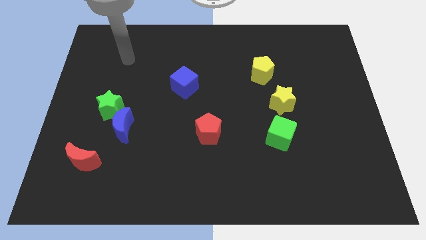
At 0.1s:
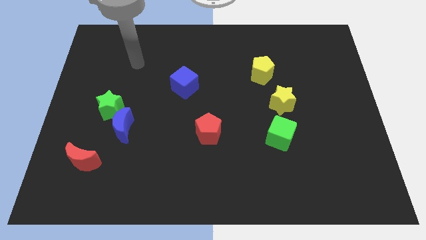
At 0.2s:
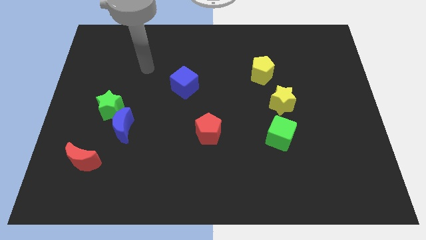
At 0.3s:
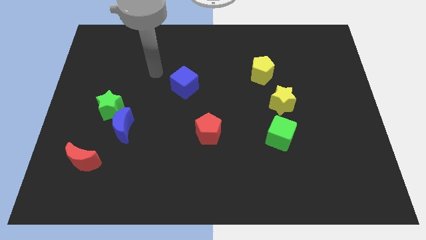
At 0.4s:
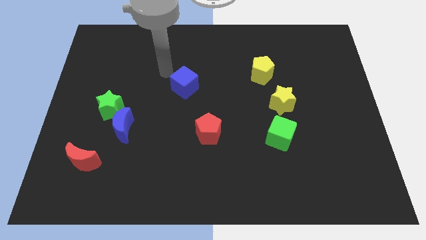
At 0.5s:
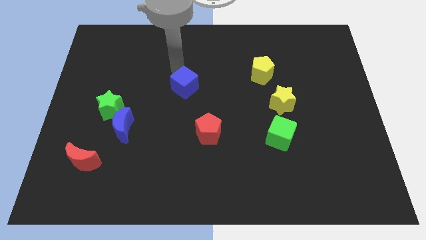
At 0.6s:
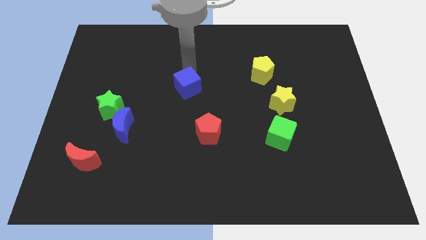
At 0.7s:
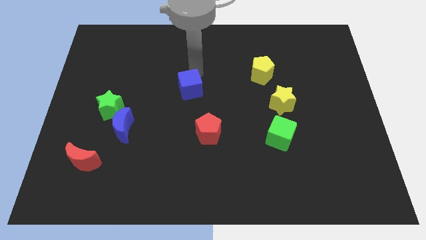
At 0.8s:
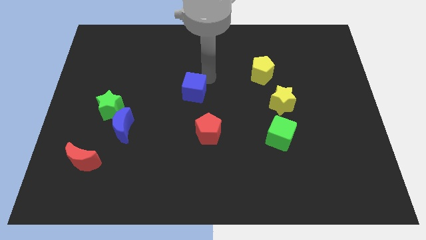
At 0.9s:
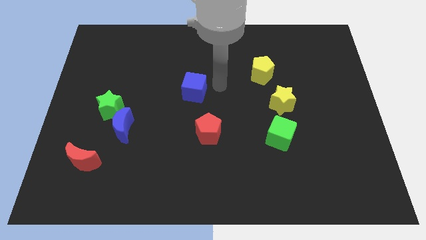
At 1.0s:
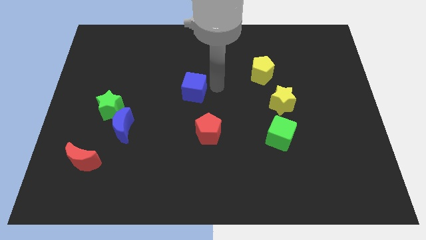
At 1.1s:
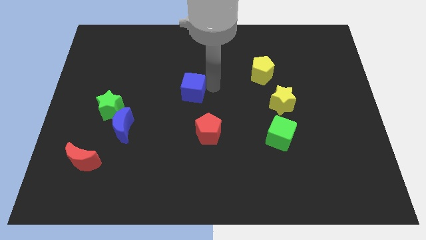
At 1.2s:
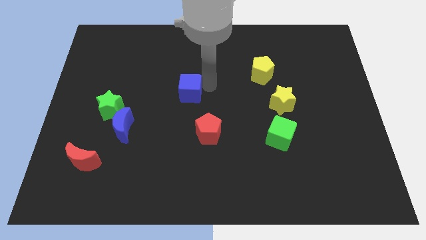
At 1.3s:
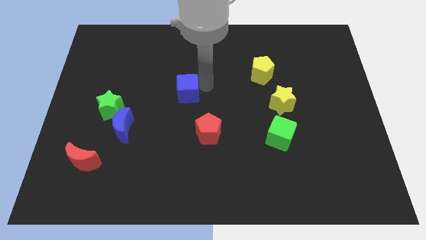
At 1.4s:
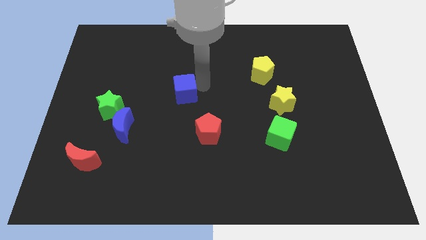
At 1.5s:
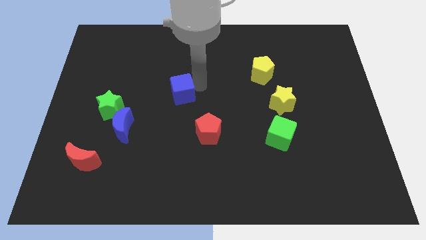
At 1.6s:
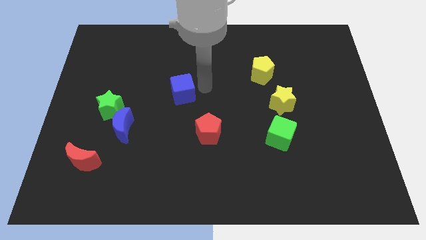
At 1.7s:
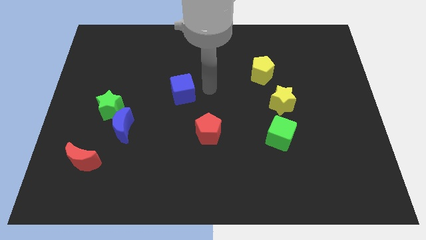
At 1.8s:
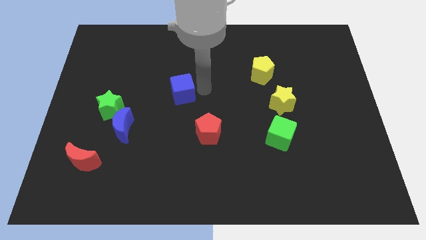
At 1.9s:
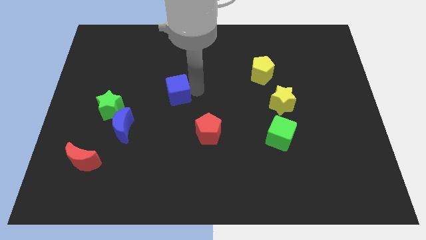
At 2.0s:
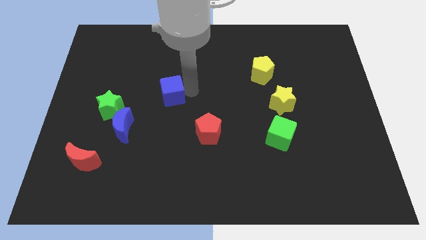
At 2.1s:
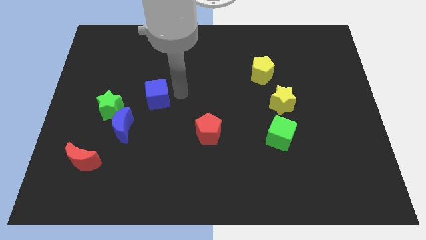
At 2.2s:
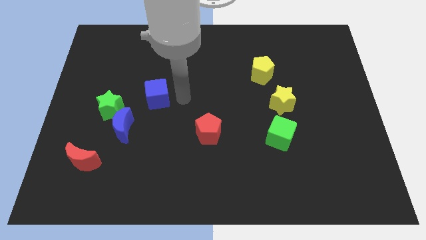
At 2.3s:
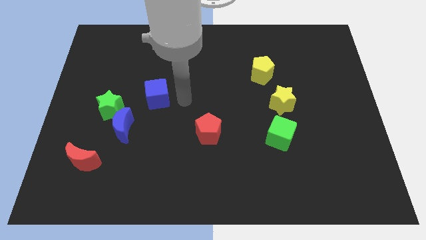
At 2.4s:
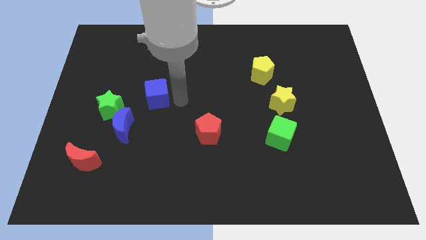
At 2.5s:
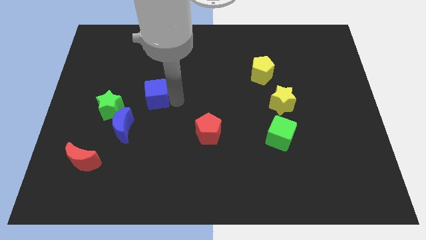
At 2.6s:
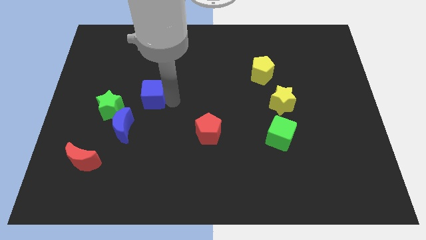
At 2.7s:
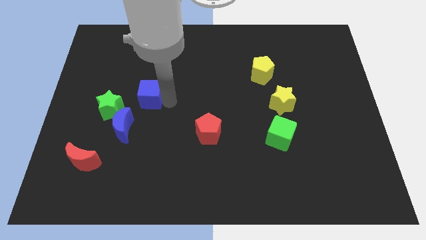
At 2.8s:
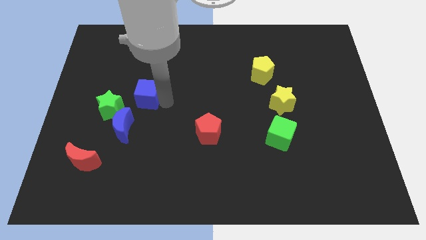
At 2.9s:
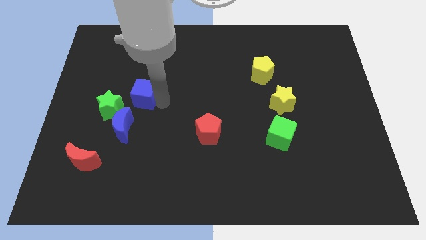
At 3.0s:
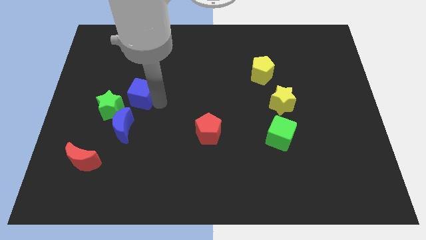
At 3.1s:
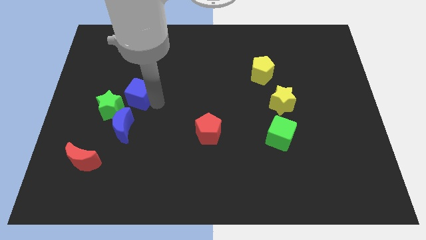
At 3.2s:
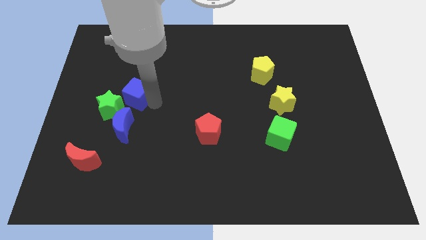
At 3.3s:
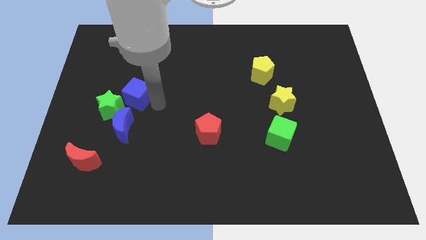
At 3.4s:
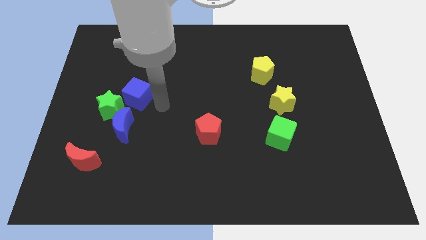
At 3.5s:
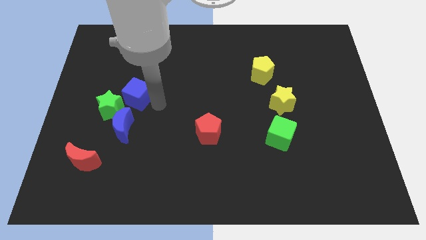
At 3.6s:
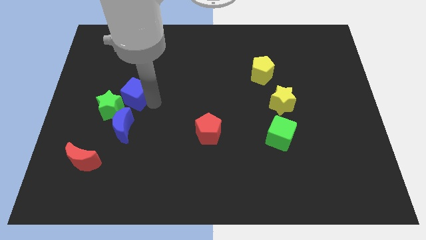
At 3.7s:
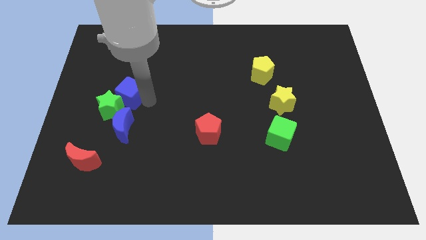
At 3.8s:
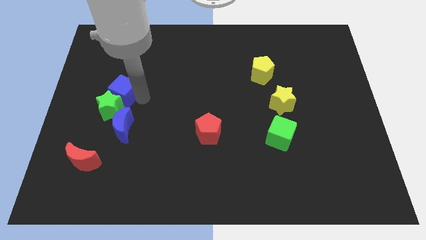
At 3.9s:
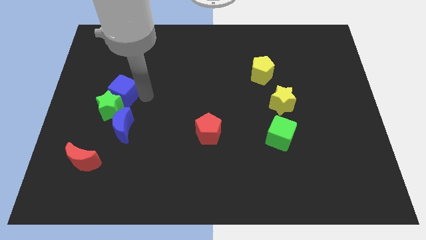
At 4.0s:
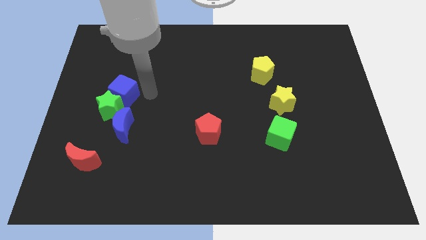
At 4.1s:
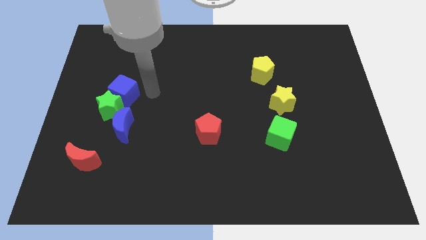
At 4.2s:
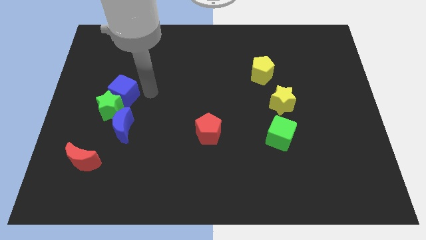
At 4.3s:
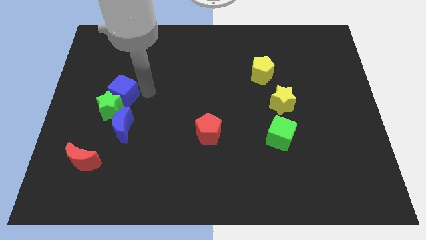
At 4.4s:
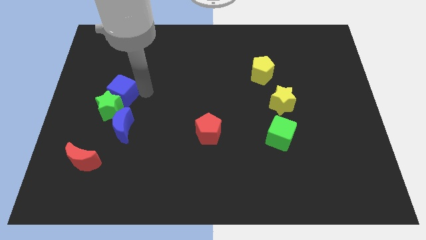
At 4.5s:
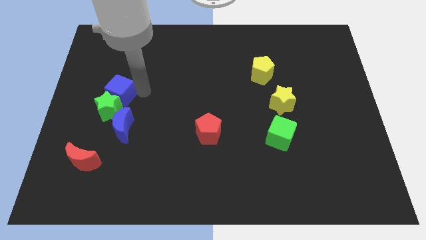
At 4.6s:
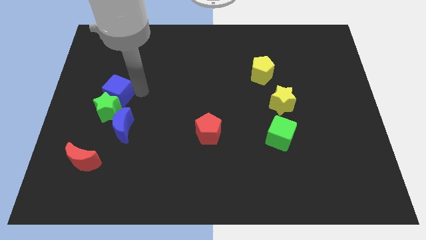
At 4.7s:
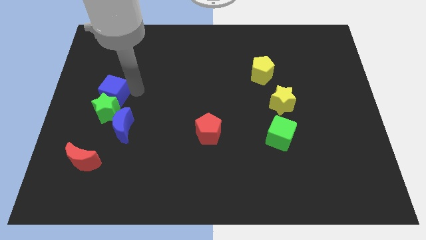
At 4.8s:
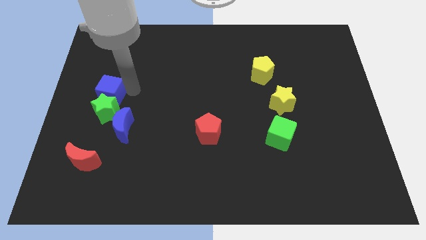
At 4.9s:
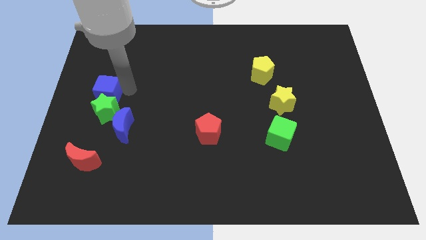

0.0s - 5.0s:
push the blue cube to the left side of the board

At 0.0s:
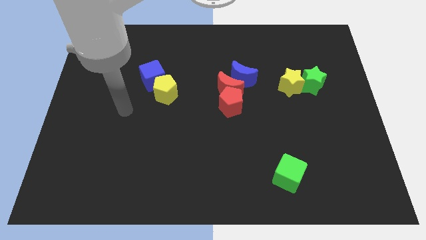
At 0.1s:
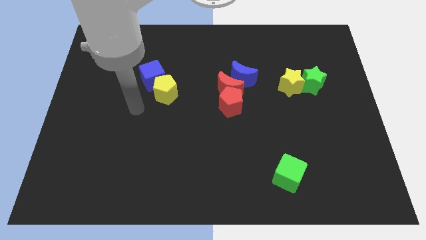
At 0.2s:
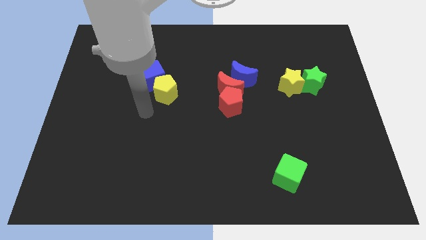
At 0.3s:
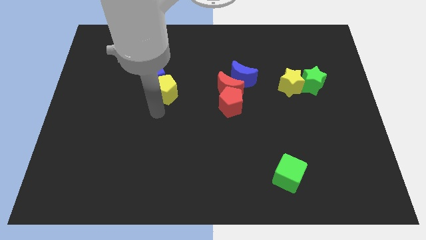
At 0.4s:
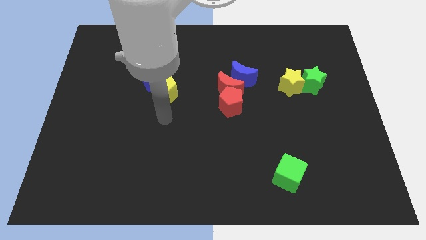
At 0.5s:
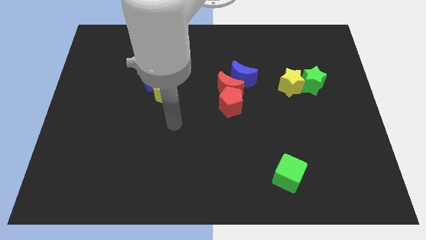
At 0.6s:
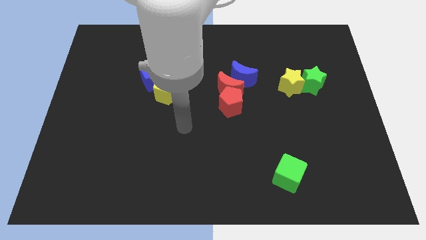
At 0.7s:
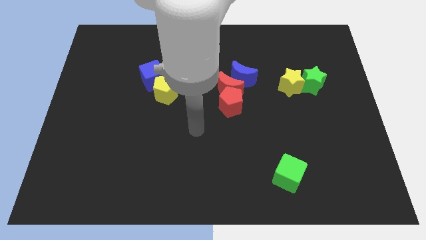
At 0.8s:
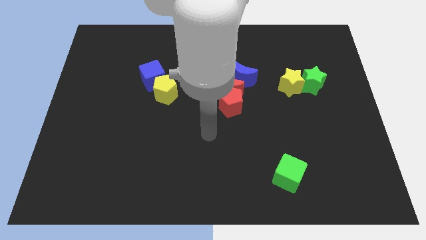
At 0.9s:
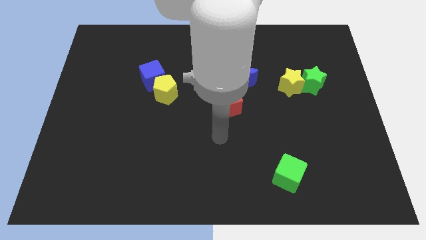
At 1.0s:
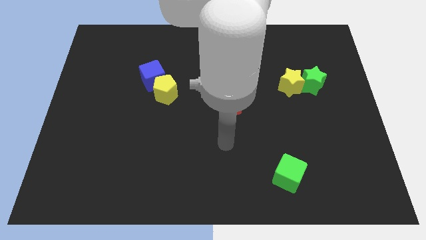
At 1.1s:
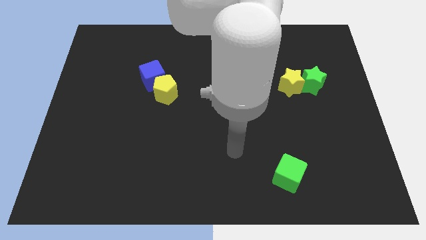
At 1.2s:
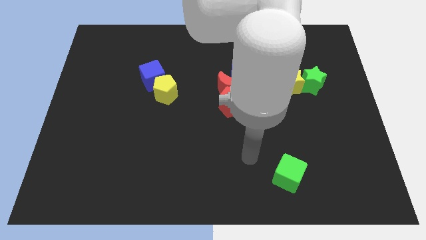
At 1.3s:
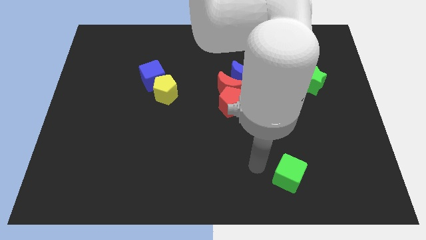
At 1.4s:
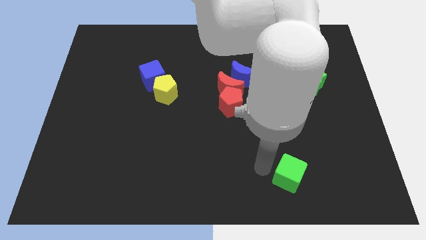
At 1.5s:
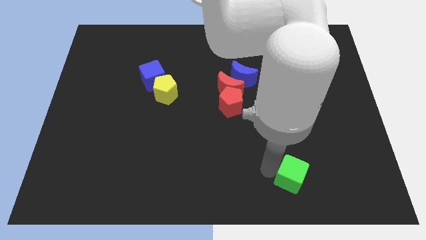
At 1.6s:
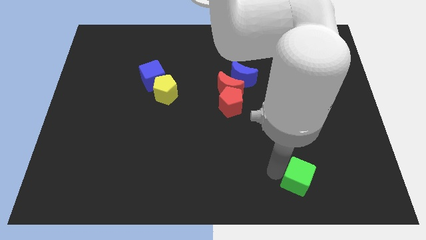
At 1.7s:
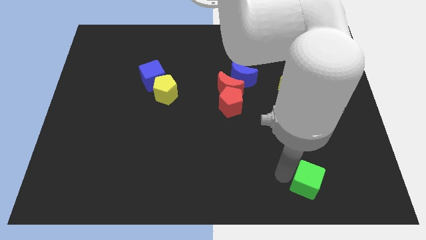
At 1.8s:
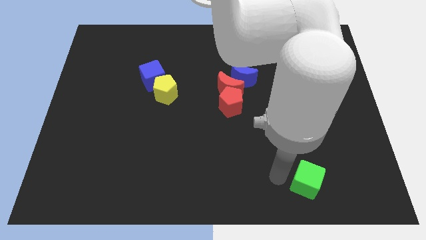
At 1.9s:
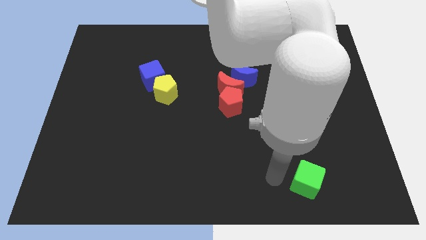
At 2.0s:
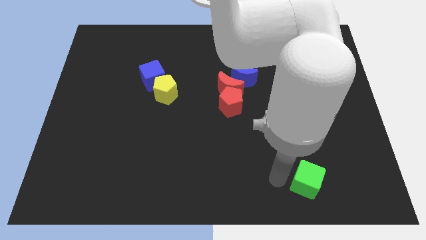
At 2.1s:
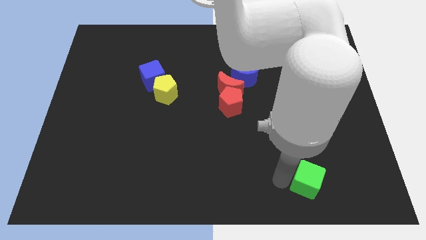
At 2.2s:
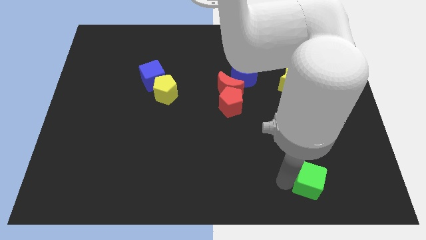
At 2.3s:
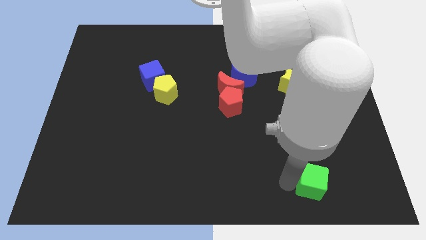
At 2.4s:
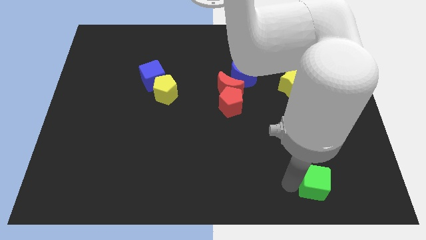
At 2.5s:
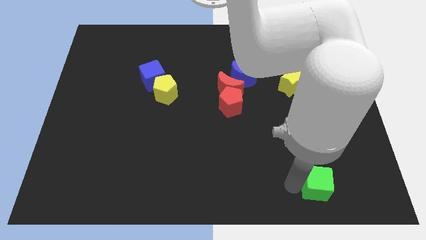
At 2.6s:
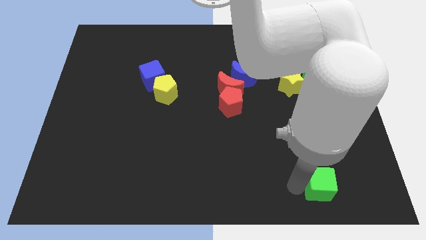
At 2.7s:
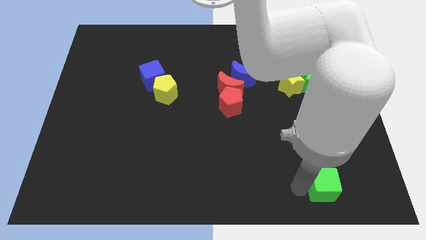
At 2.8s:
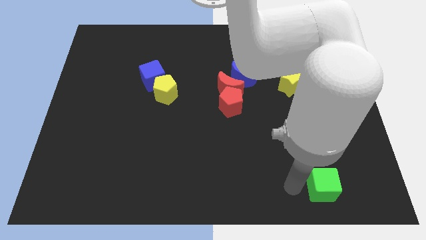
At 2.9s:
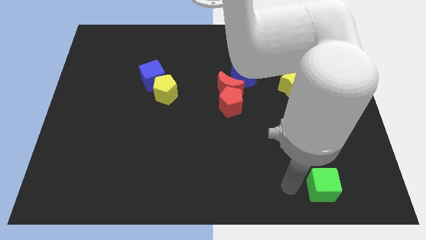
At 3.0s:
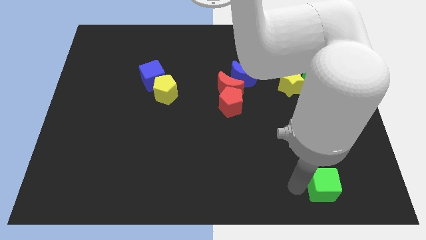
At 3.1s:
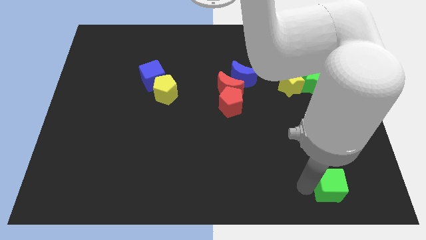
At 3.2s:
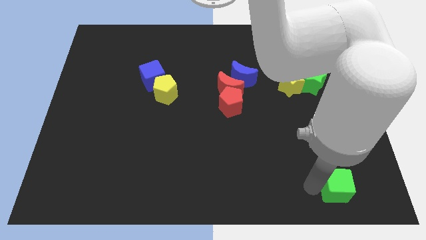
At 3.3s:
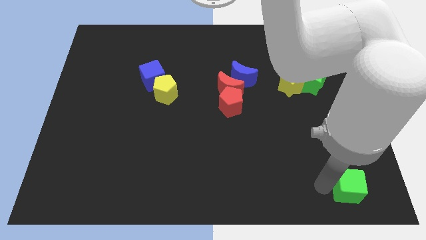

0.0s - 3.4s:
put the green cube to the bottom right
